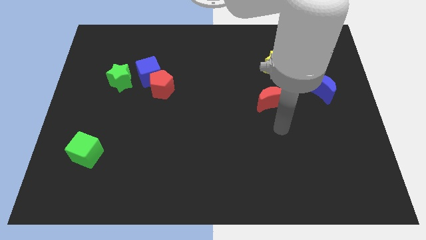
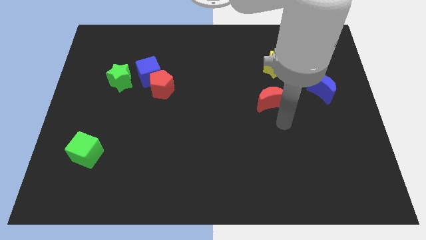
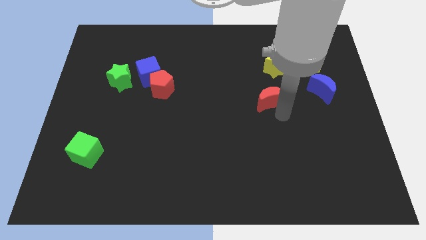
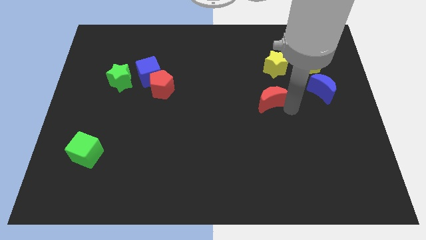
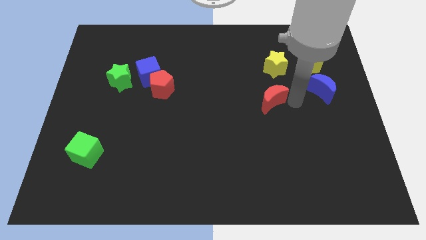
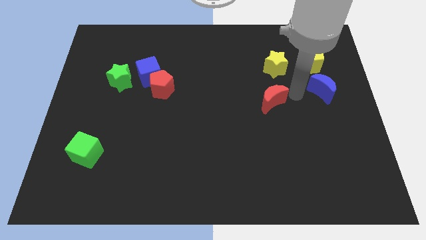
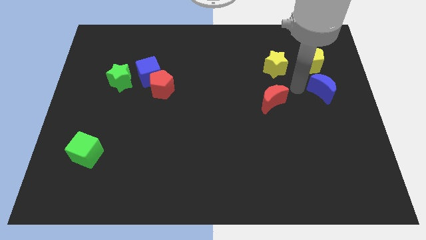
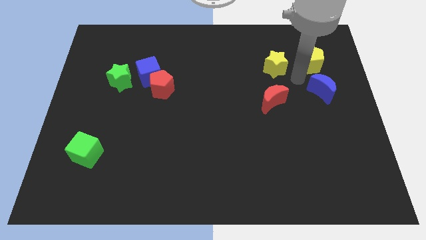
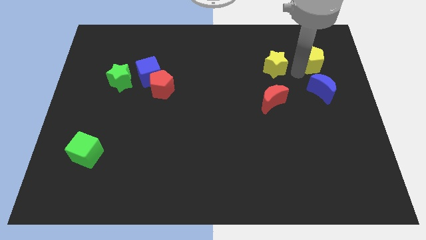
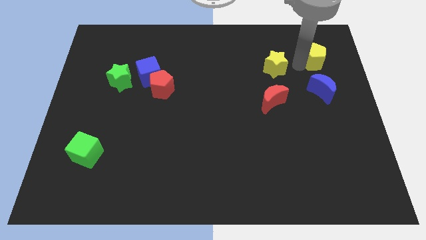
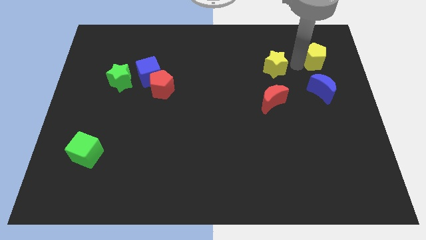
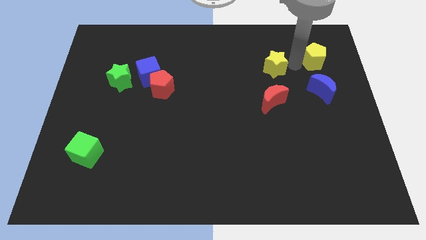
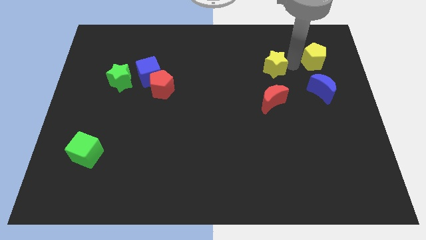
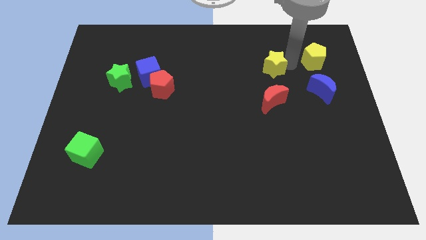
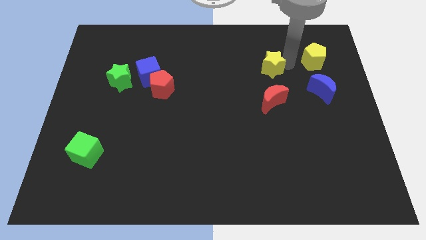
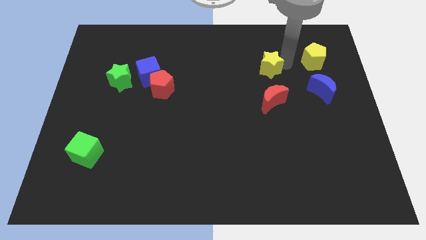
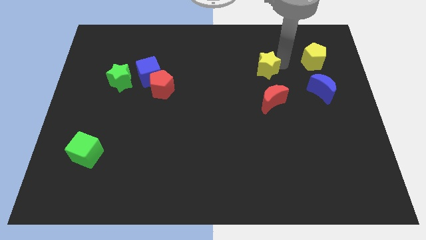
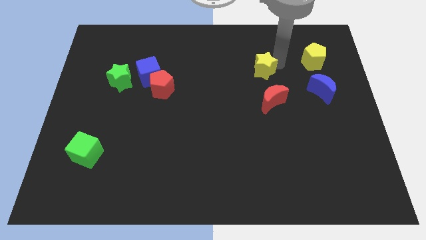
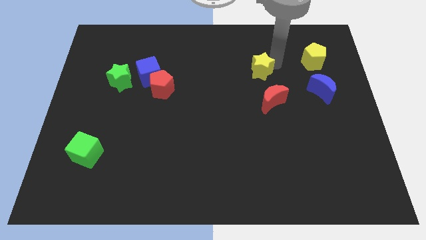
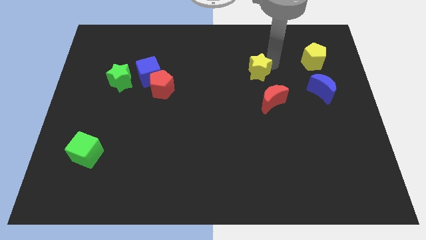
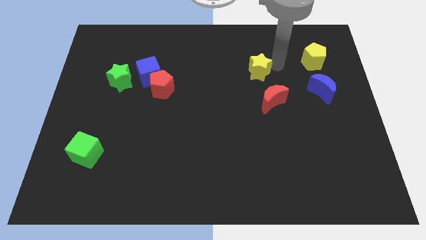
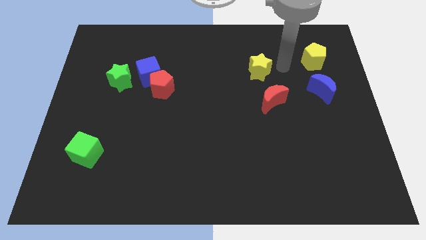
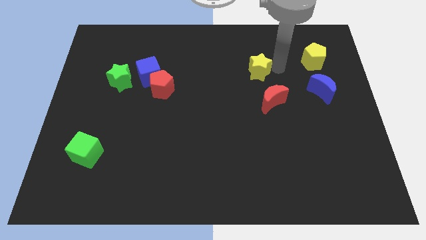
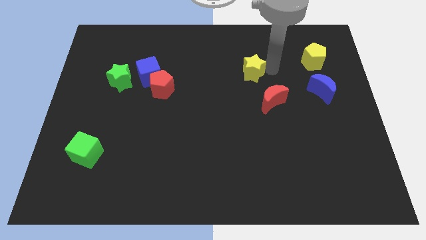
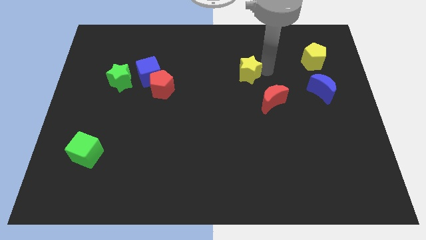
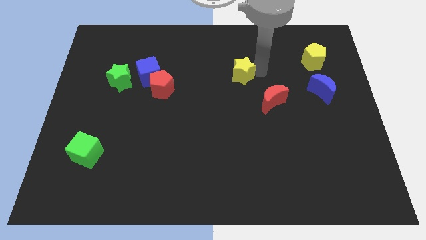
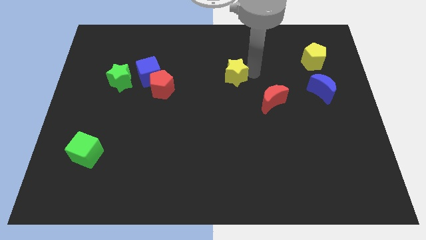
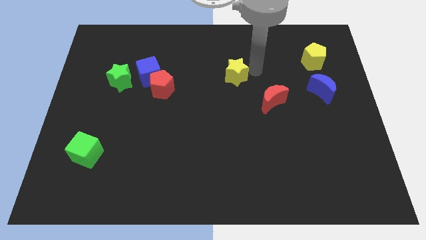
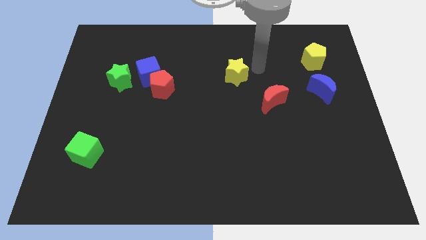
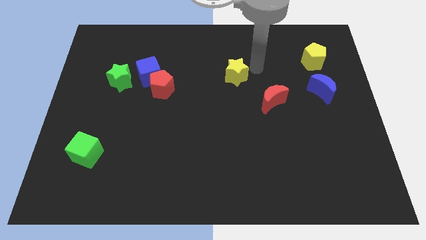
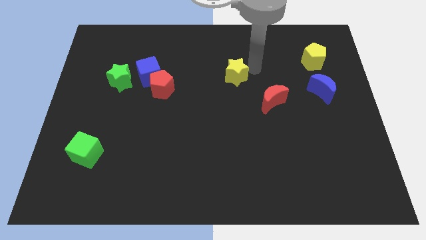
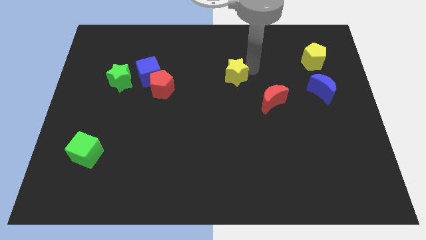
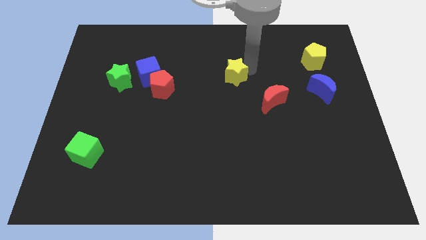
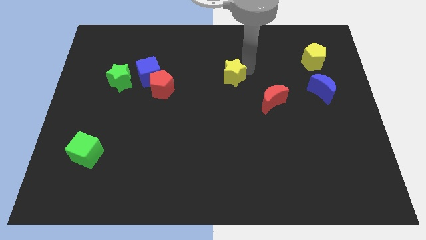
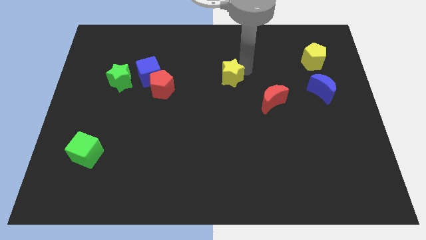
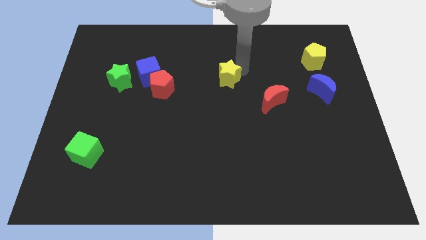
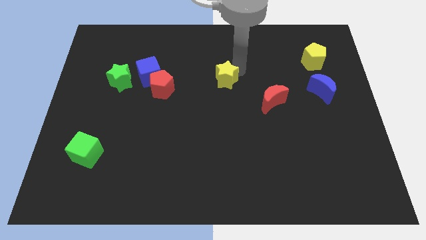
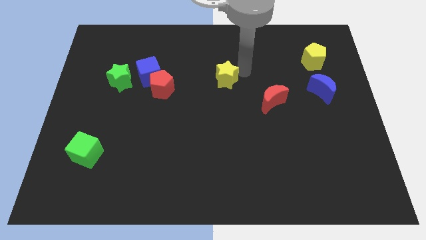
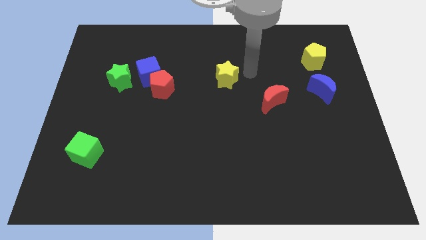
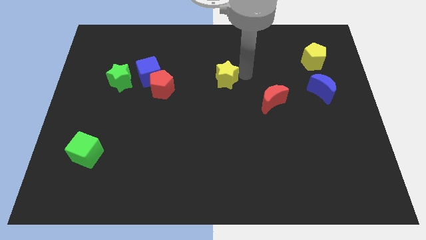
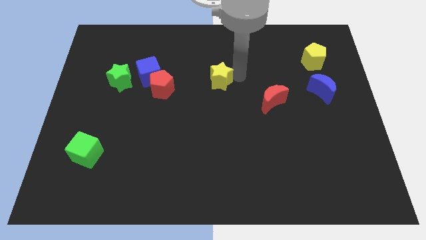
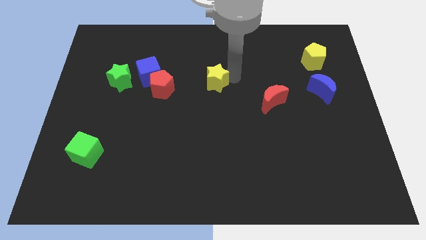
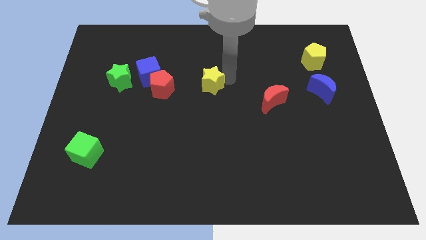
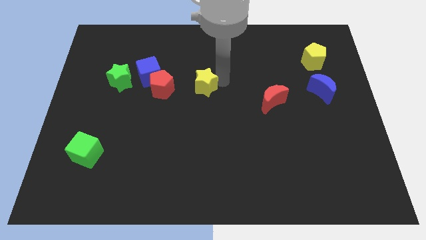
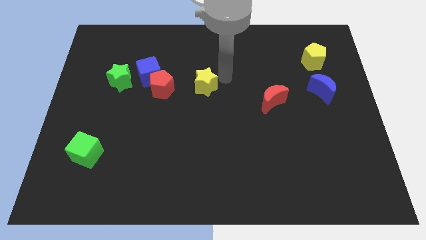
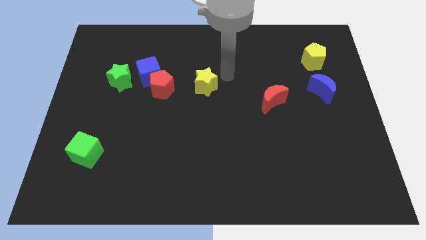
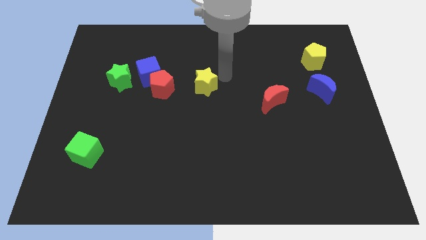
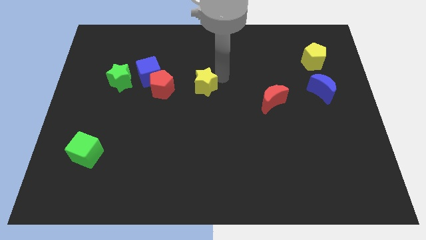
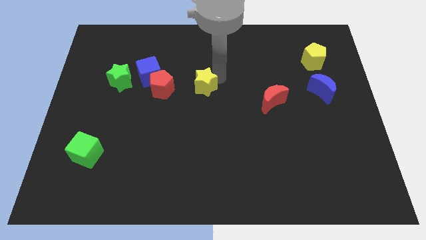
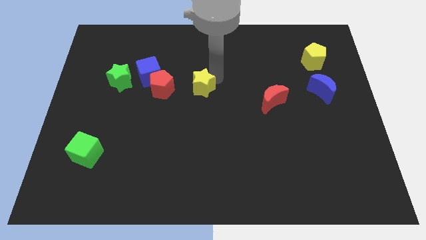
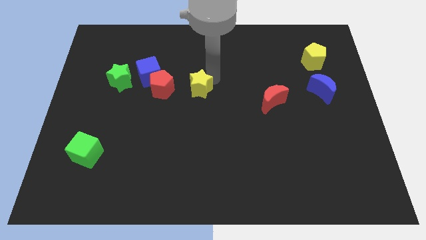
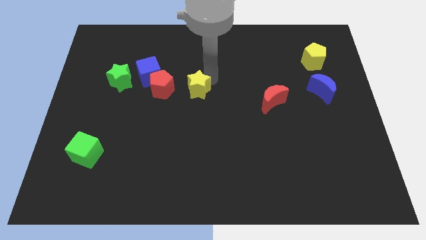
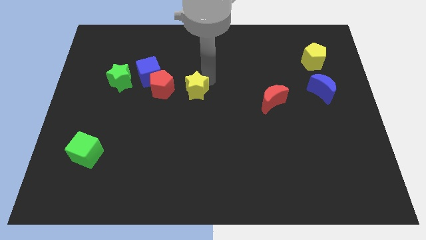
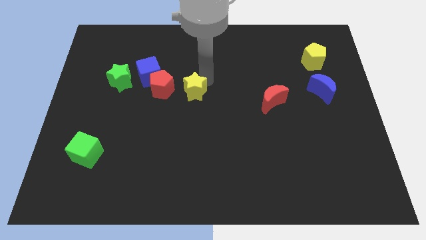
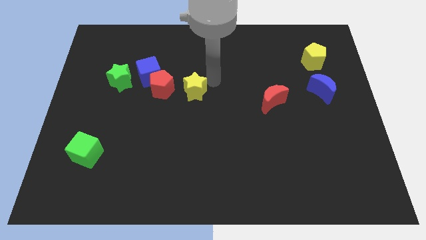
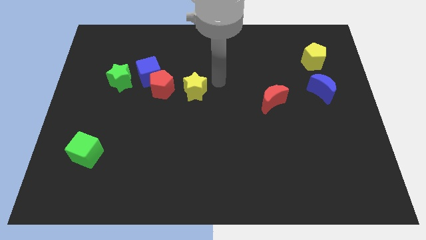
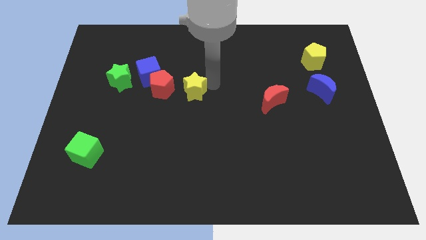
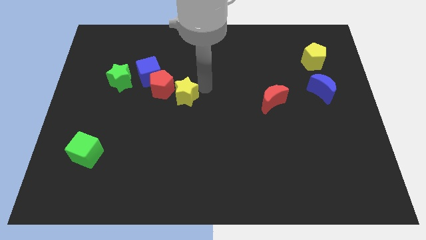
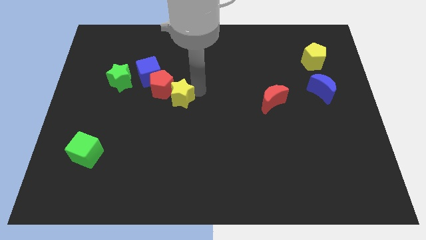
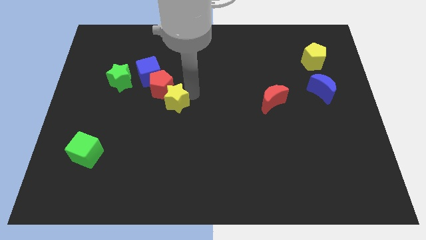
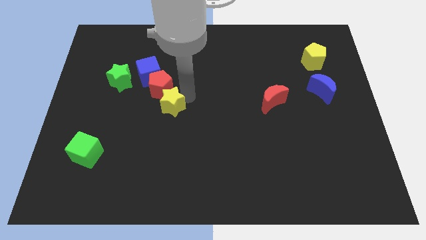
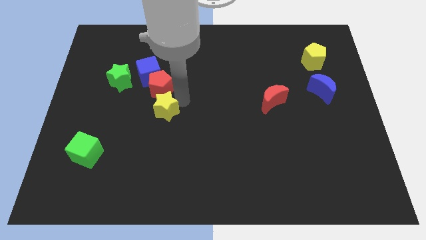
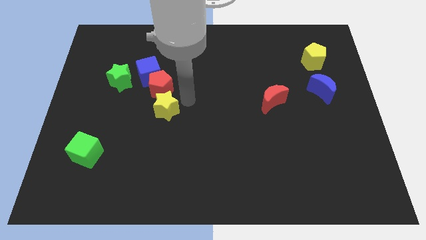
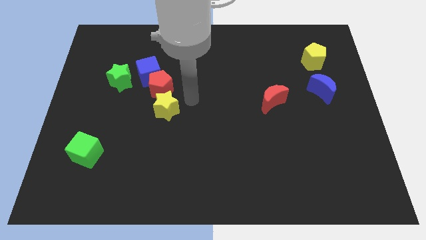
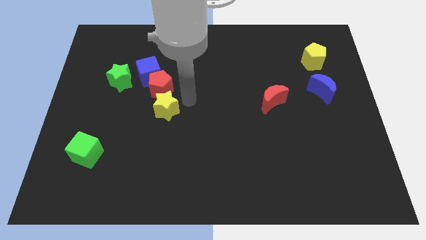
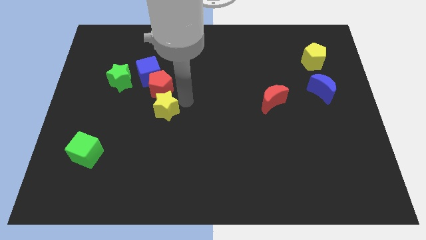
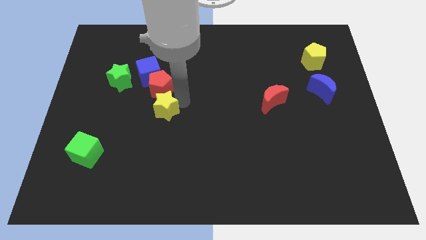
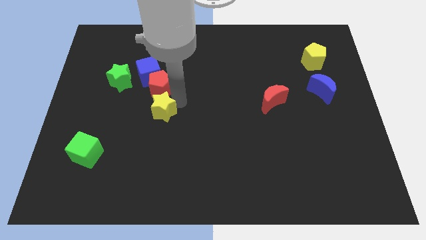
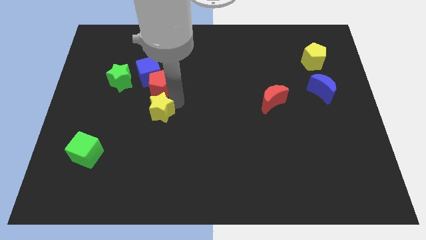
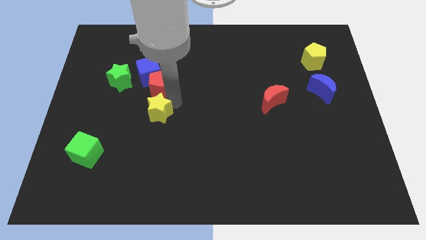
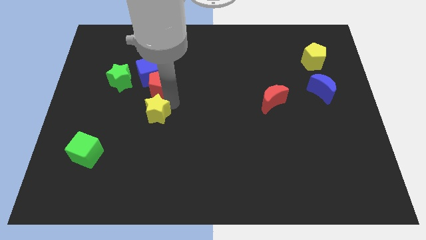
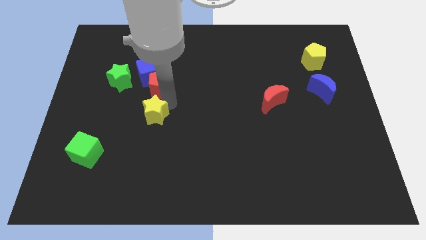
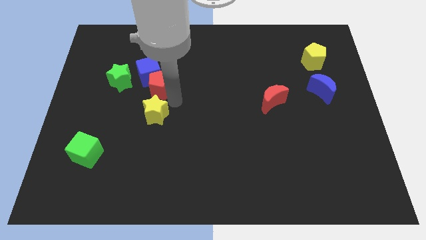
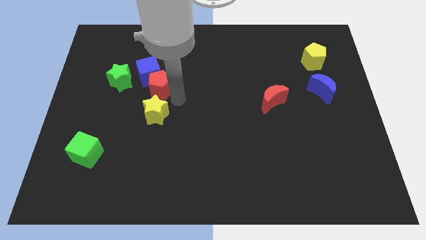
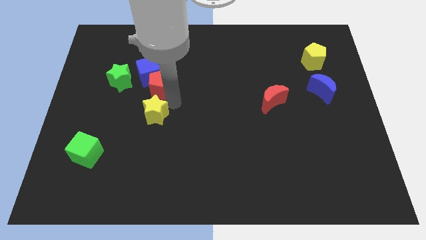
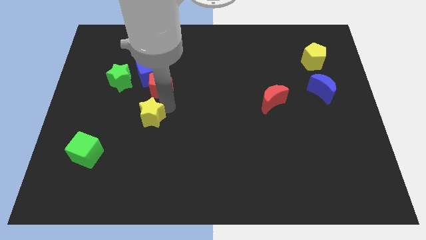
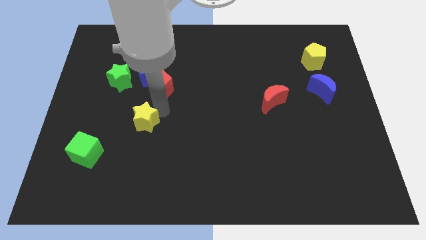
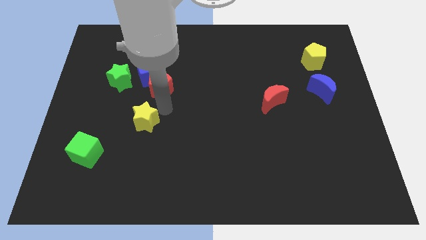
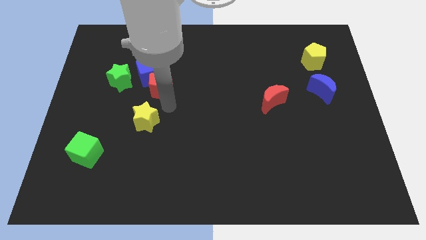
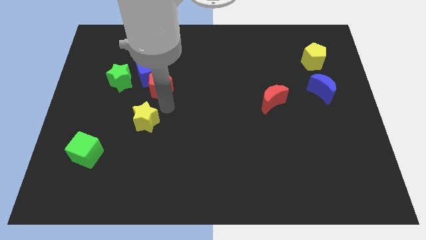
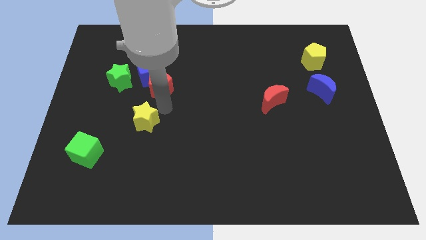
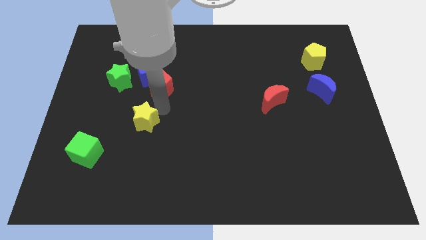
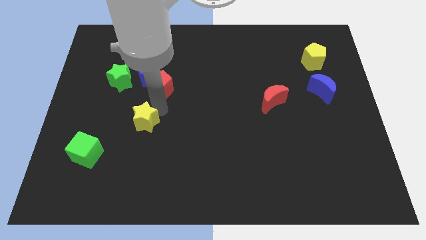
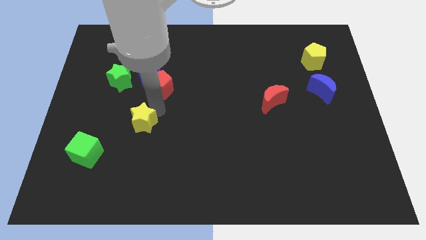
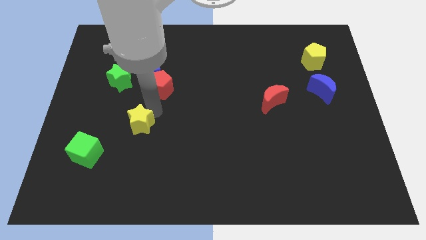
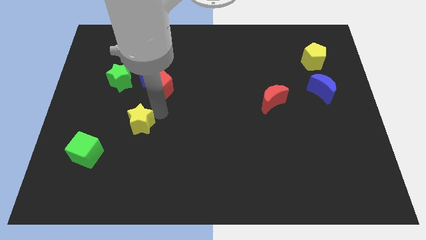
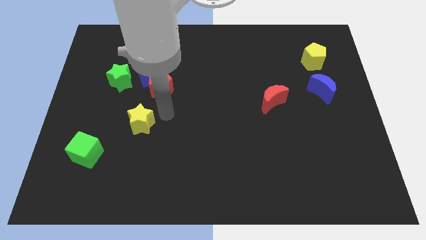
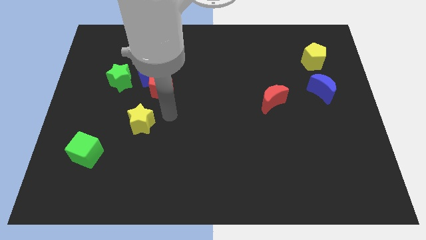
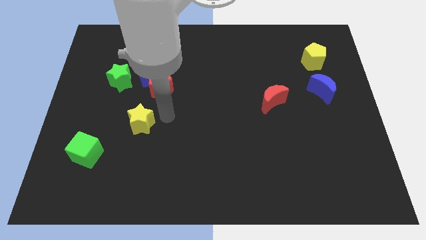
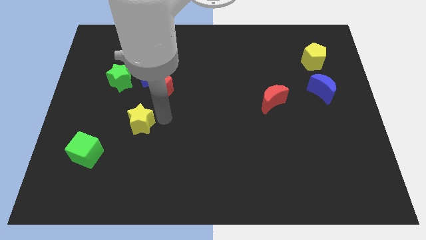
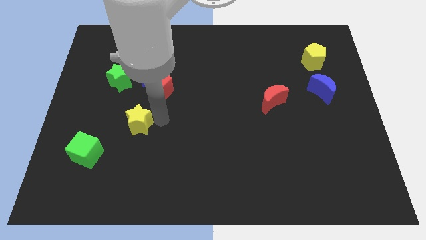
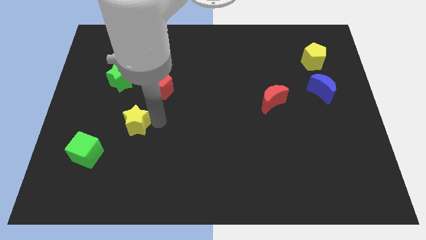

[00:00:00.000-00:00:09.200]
move the yellow star to the top right of the green cube
